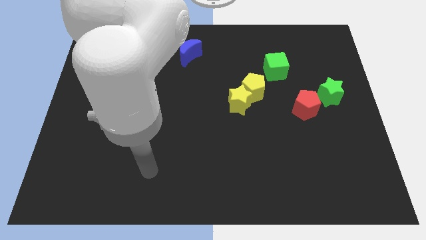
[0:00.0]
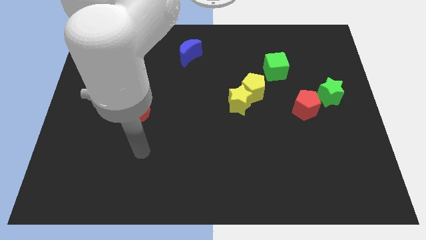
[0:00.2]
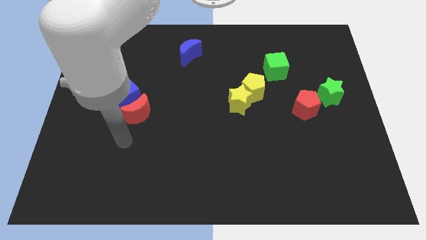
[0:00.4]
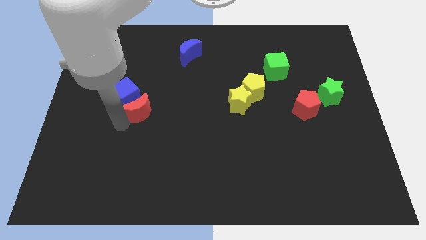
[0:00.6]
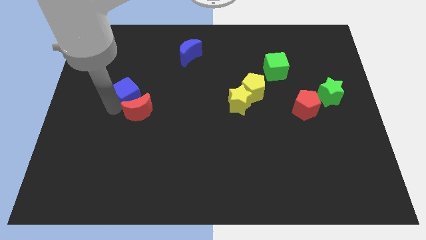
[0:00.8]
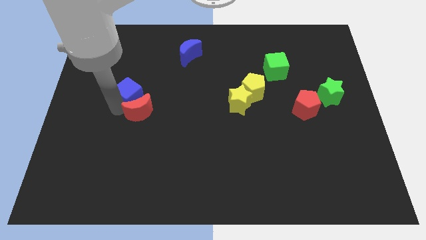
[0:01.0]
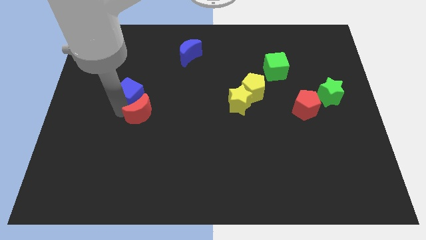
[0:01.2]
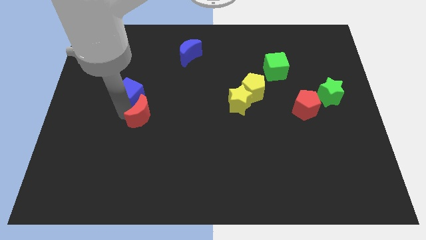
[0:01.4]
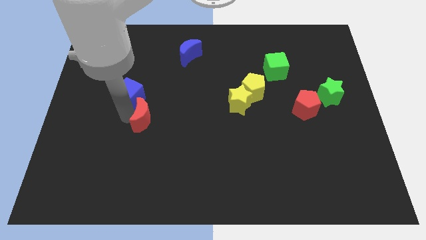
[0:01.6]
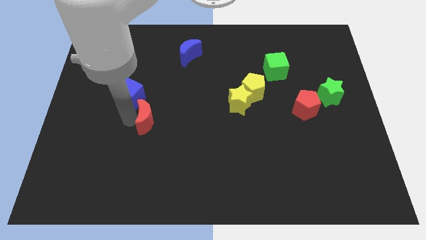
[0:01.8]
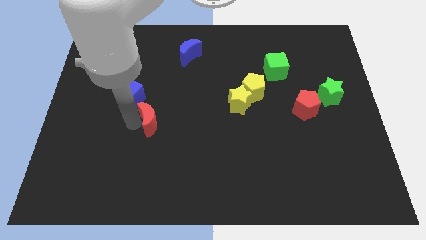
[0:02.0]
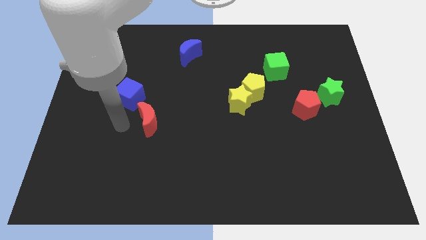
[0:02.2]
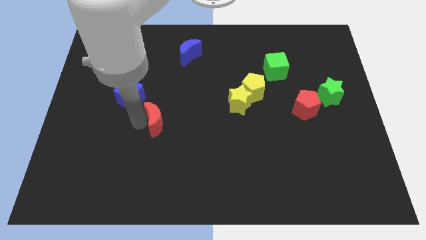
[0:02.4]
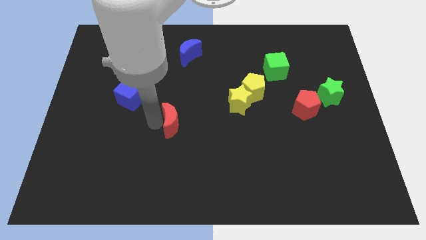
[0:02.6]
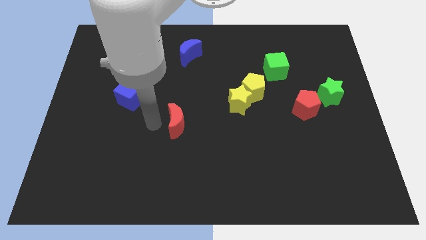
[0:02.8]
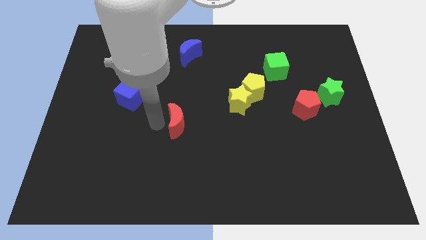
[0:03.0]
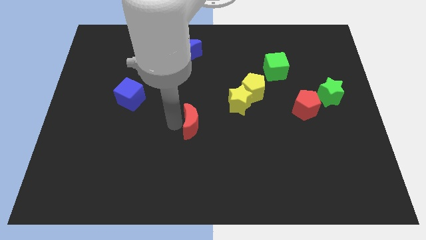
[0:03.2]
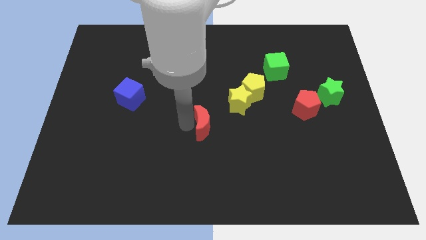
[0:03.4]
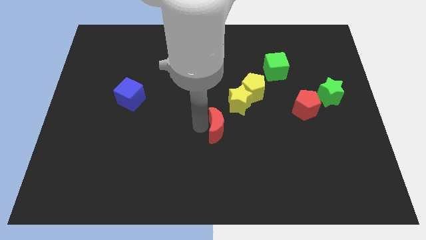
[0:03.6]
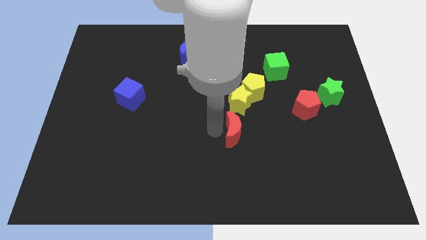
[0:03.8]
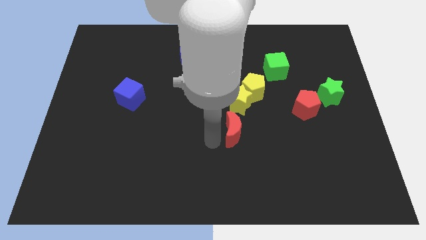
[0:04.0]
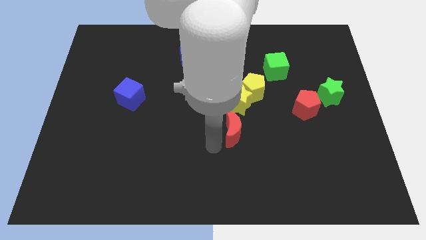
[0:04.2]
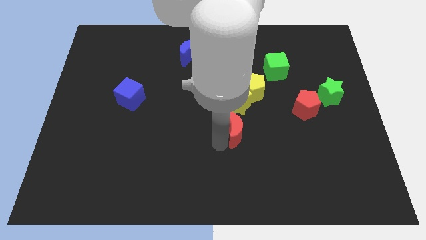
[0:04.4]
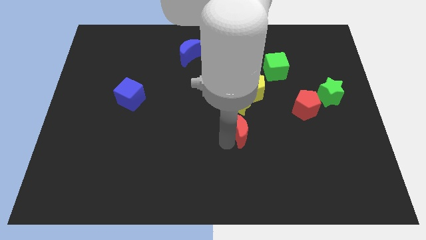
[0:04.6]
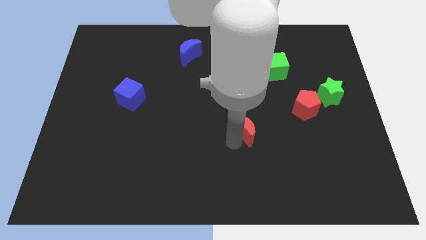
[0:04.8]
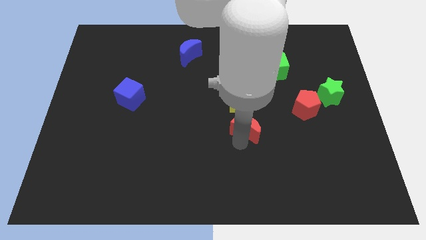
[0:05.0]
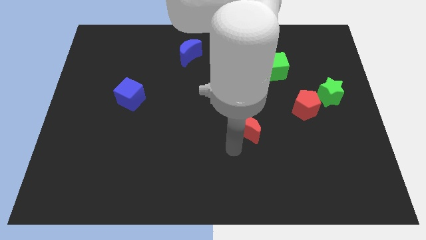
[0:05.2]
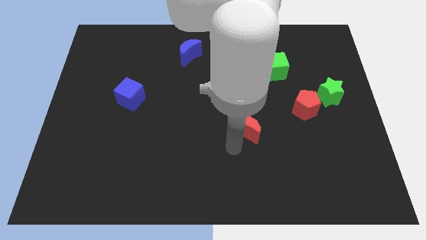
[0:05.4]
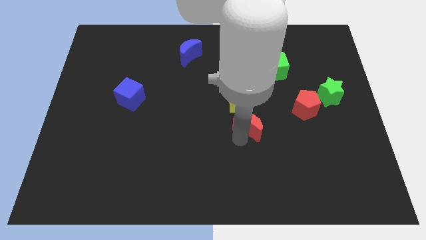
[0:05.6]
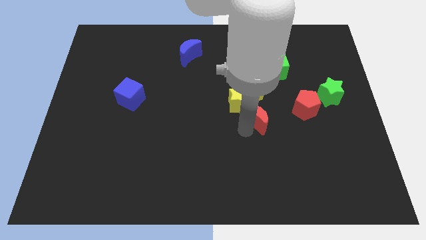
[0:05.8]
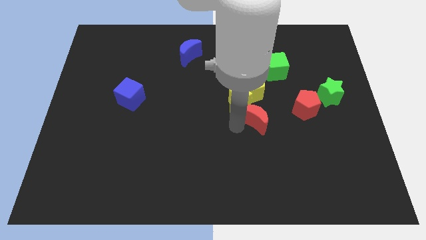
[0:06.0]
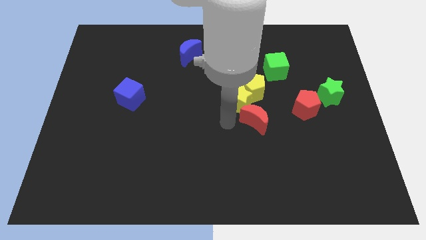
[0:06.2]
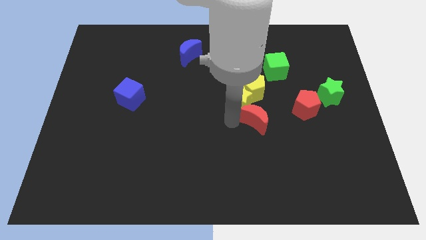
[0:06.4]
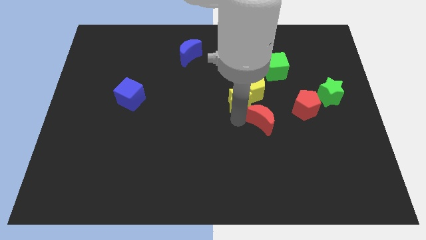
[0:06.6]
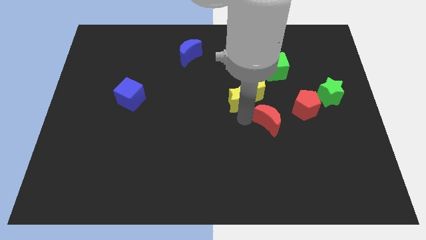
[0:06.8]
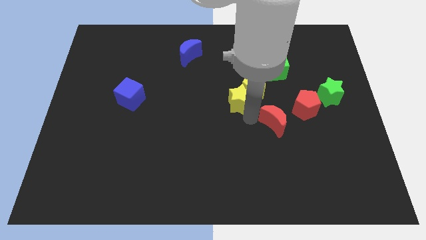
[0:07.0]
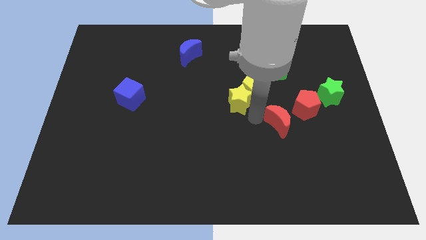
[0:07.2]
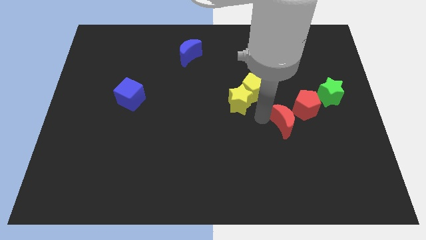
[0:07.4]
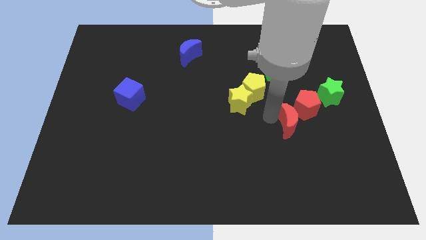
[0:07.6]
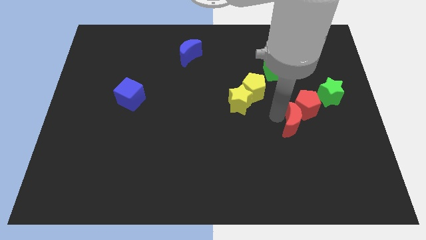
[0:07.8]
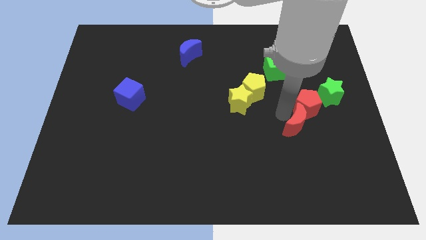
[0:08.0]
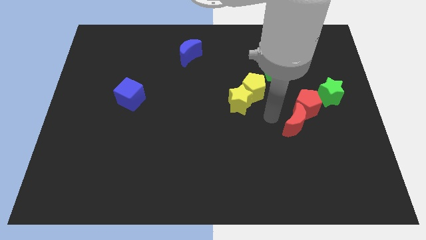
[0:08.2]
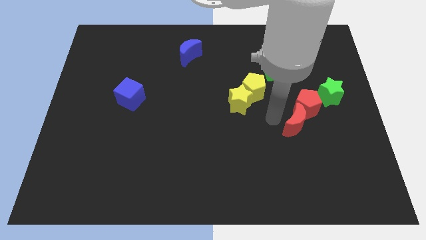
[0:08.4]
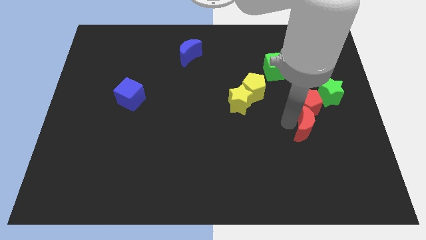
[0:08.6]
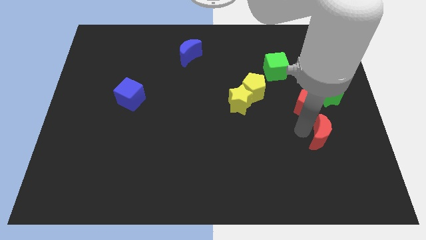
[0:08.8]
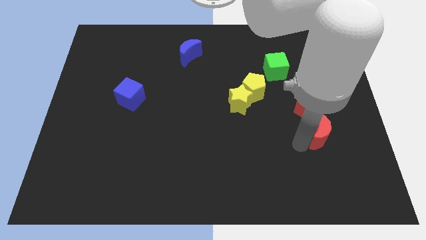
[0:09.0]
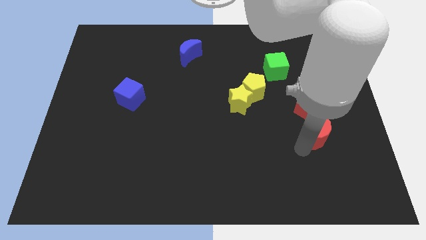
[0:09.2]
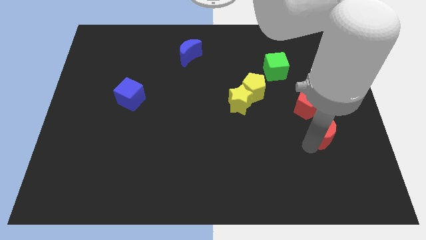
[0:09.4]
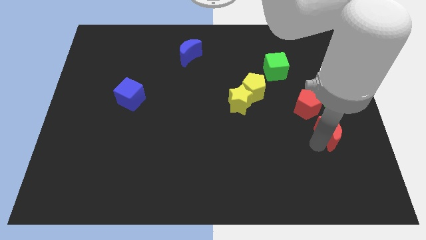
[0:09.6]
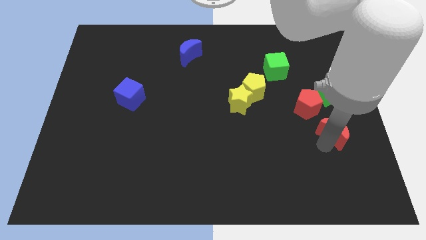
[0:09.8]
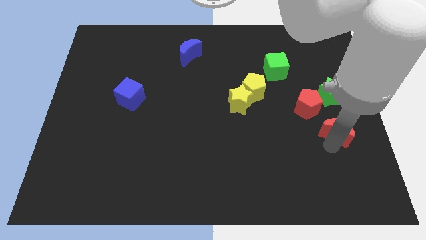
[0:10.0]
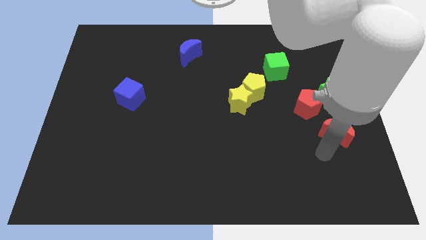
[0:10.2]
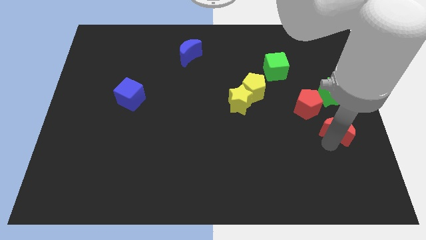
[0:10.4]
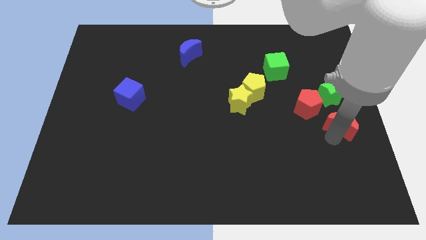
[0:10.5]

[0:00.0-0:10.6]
slide the red moon to the right side of the board
